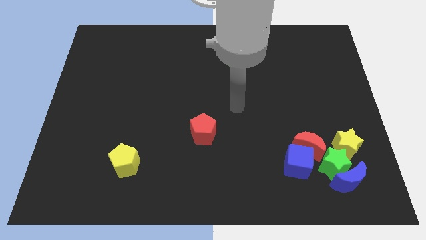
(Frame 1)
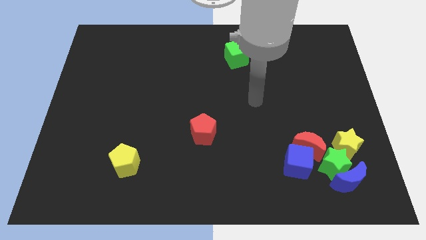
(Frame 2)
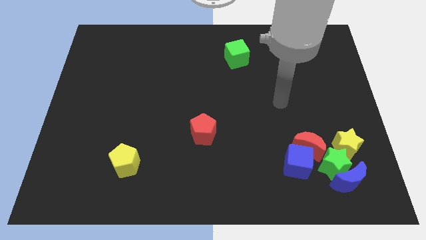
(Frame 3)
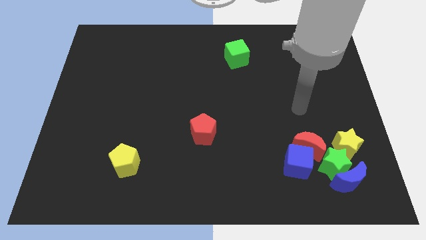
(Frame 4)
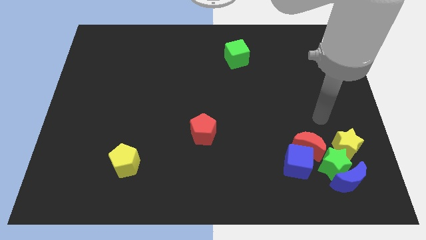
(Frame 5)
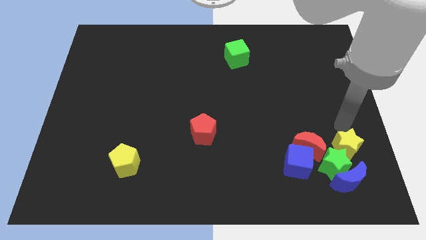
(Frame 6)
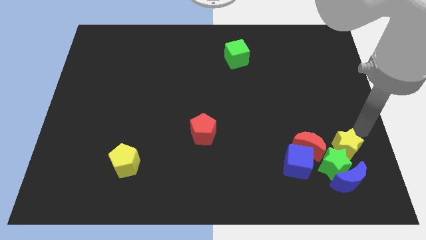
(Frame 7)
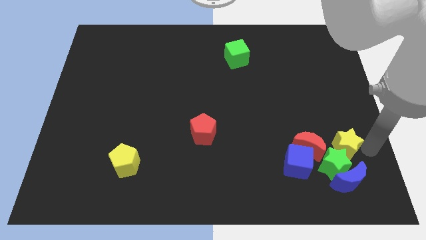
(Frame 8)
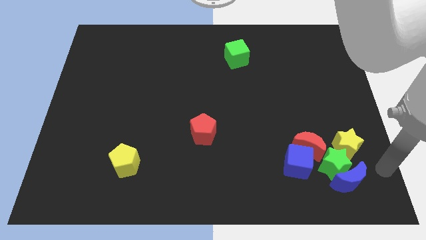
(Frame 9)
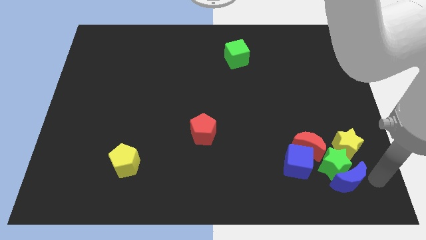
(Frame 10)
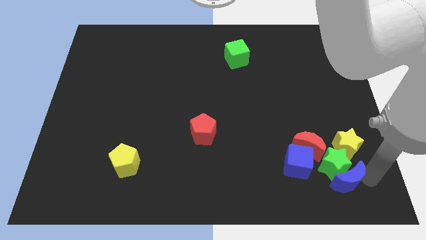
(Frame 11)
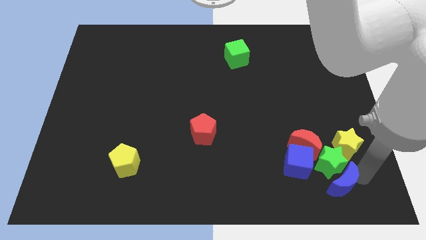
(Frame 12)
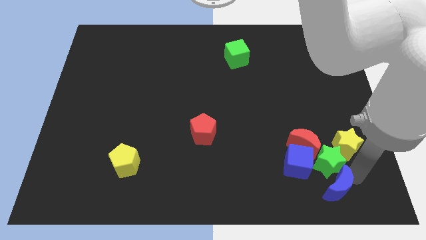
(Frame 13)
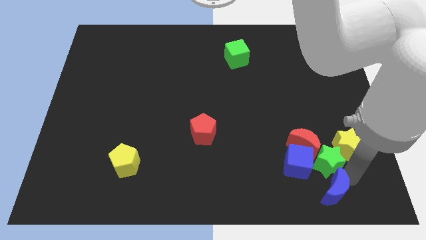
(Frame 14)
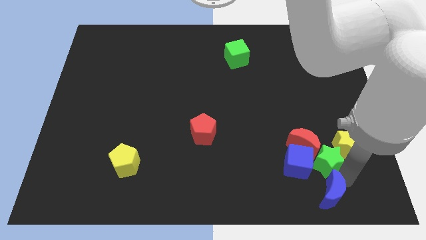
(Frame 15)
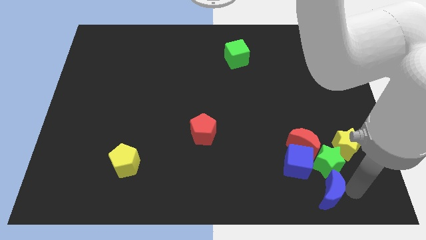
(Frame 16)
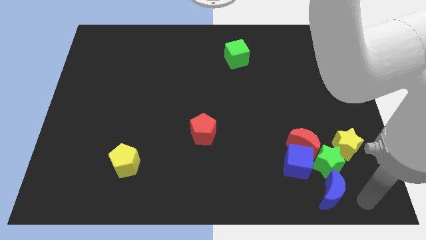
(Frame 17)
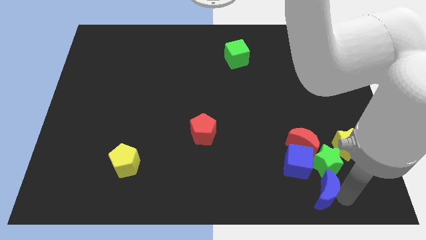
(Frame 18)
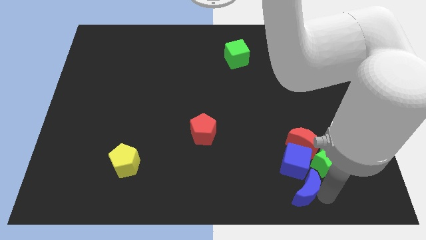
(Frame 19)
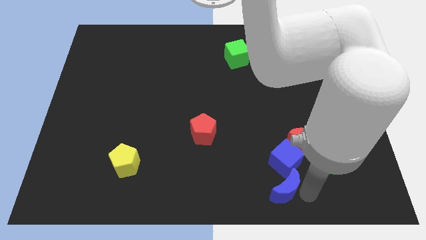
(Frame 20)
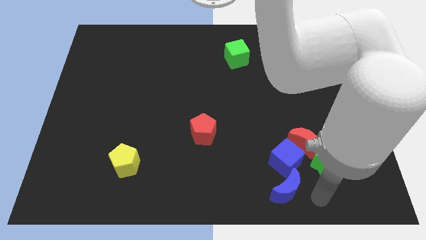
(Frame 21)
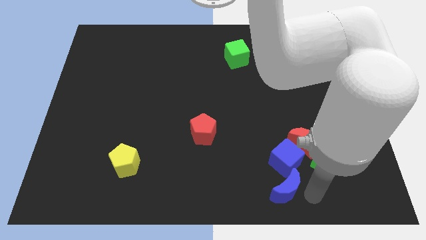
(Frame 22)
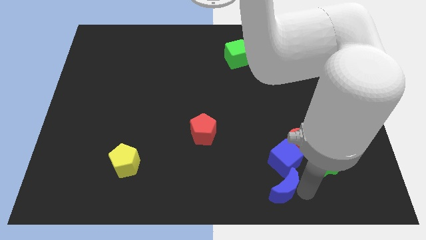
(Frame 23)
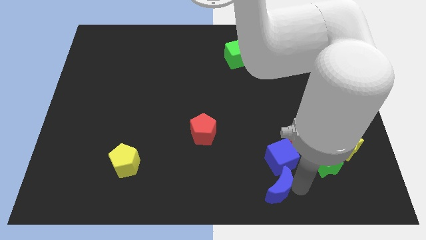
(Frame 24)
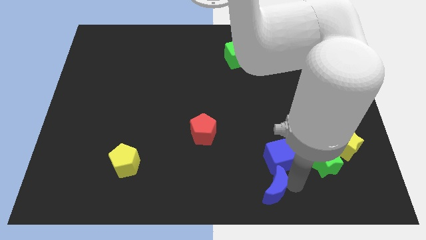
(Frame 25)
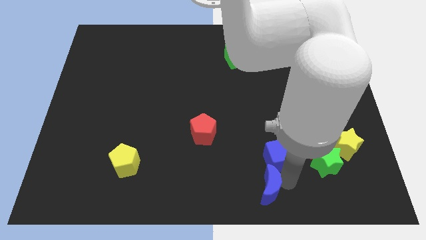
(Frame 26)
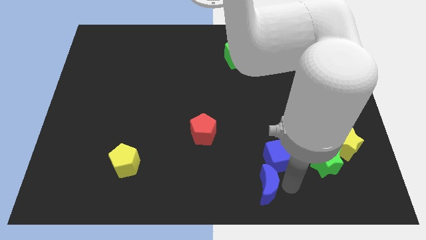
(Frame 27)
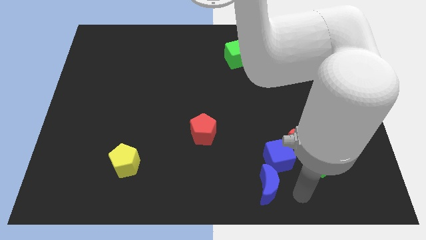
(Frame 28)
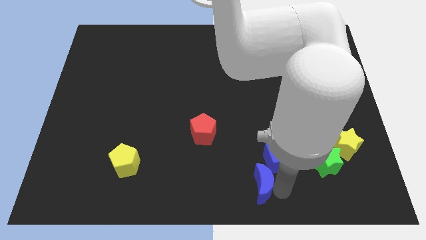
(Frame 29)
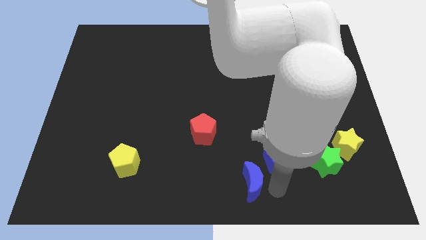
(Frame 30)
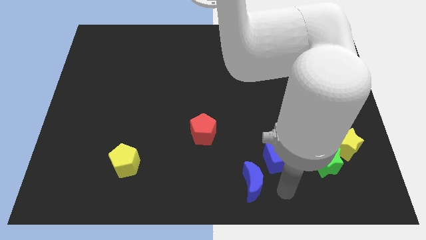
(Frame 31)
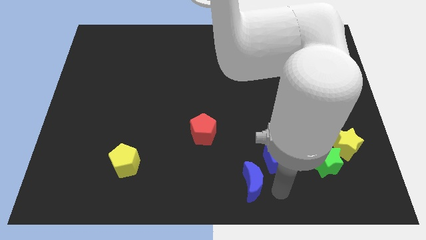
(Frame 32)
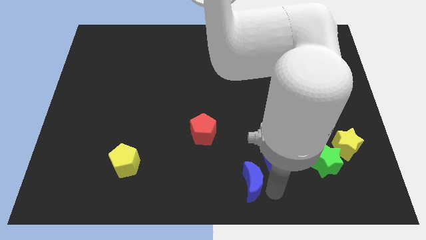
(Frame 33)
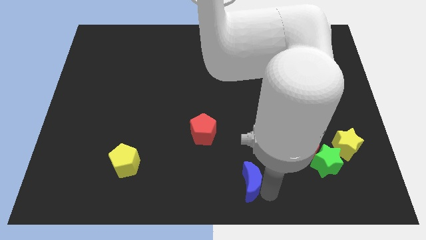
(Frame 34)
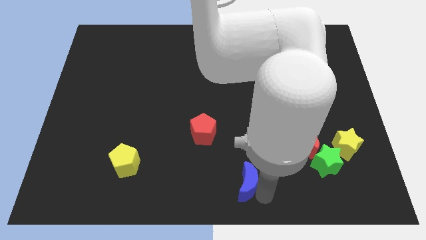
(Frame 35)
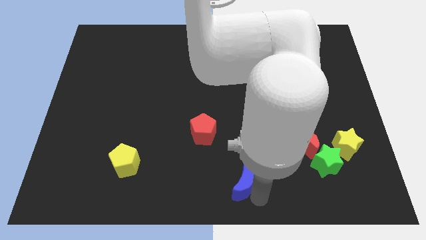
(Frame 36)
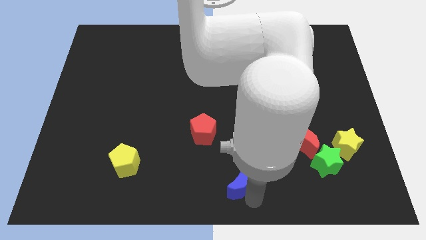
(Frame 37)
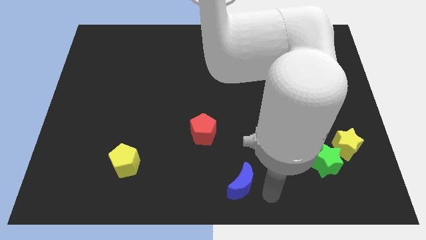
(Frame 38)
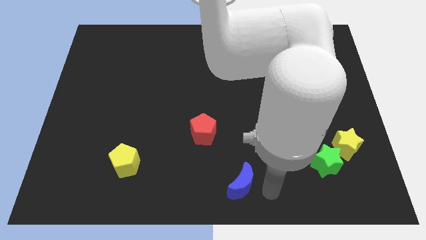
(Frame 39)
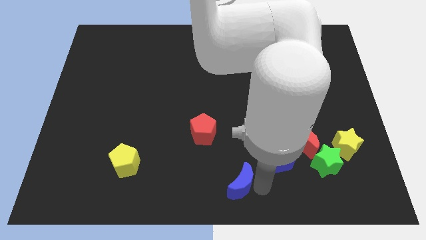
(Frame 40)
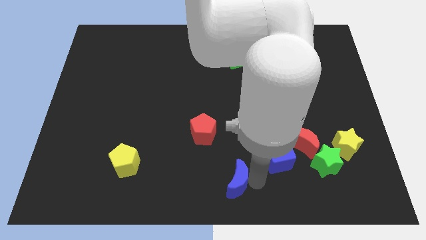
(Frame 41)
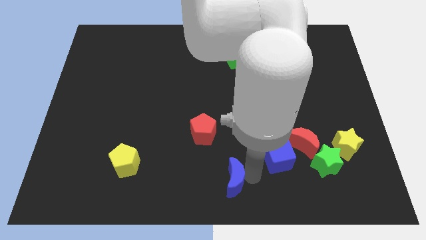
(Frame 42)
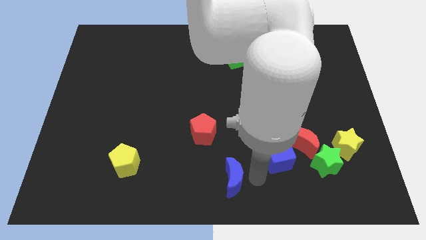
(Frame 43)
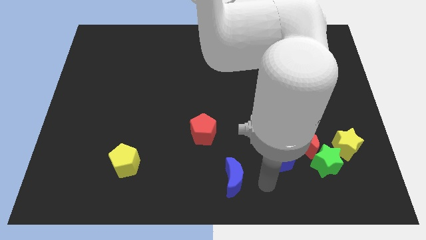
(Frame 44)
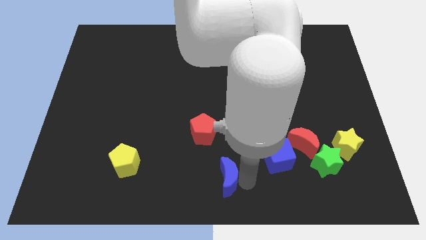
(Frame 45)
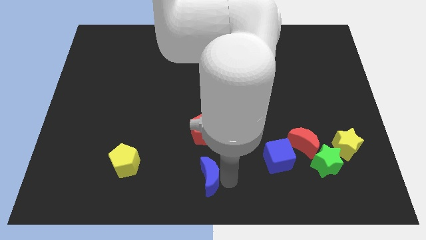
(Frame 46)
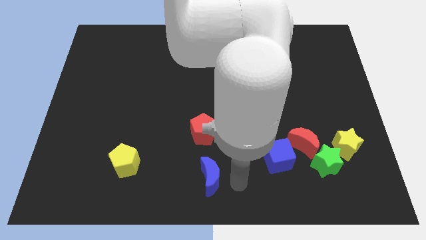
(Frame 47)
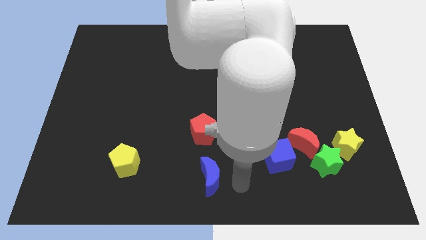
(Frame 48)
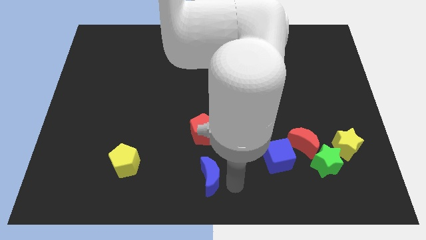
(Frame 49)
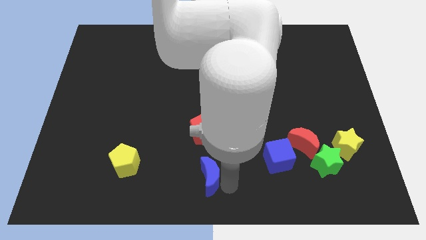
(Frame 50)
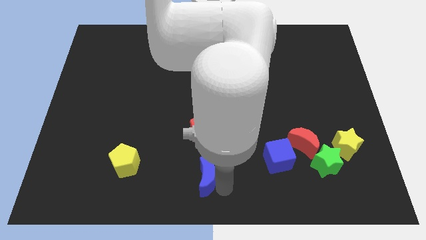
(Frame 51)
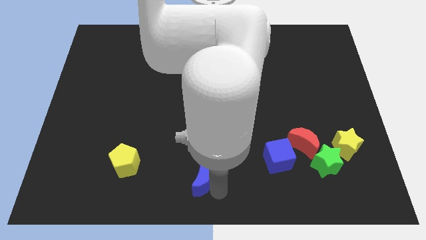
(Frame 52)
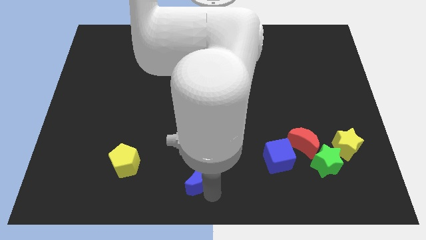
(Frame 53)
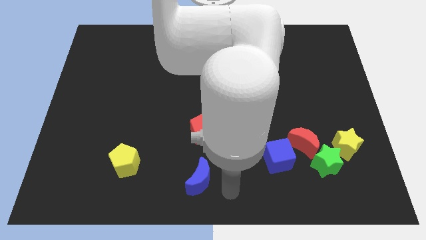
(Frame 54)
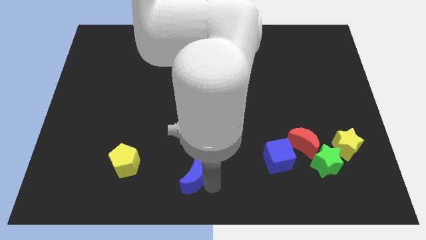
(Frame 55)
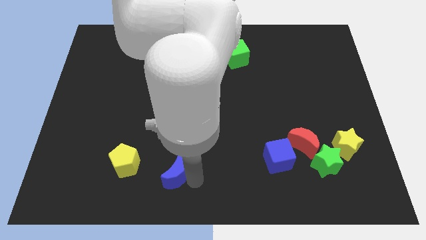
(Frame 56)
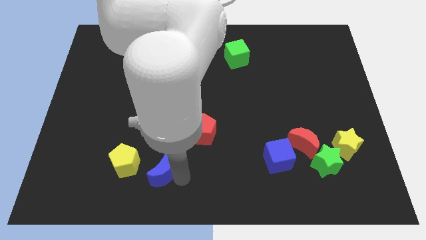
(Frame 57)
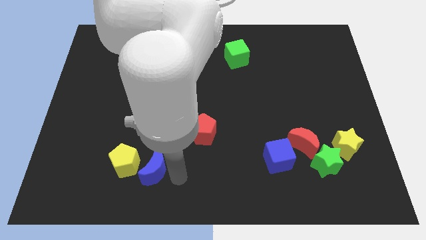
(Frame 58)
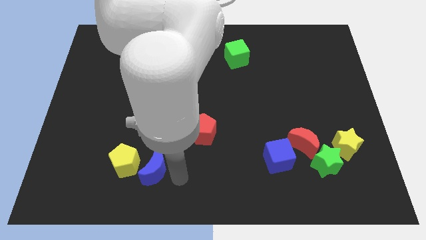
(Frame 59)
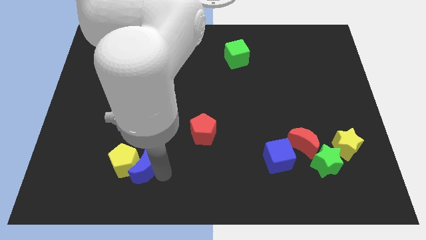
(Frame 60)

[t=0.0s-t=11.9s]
move the blue moon to the yellow pentagon
